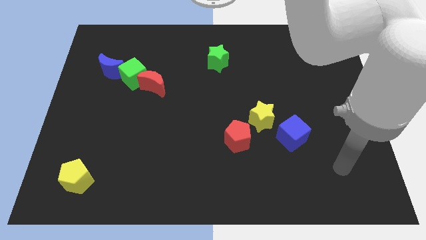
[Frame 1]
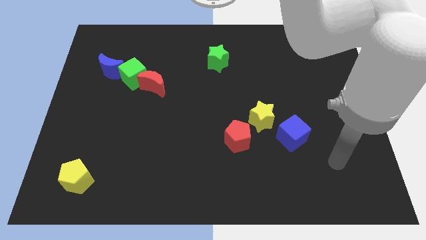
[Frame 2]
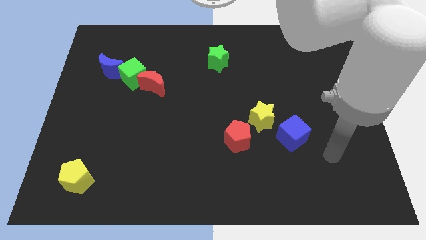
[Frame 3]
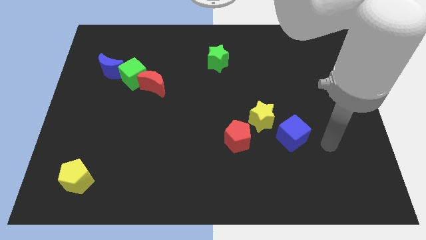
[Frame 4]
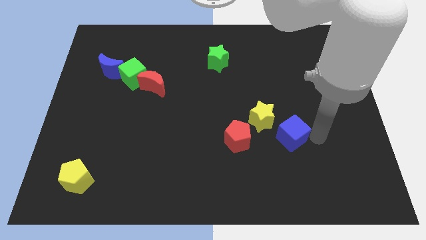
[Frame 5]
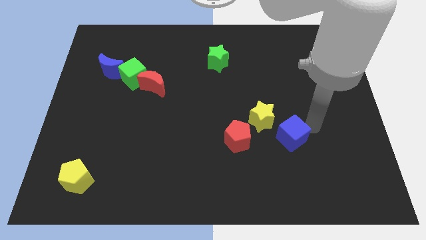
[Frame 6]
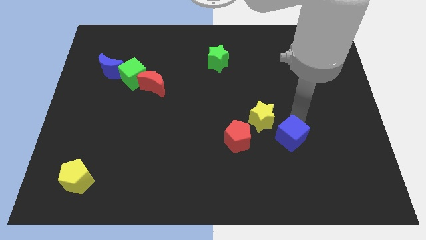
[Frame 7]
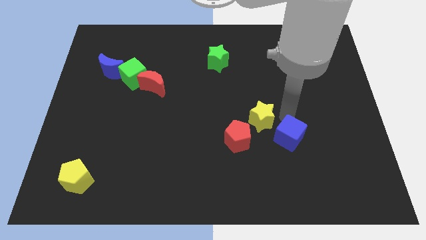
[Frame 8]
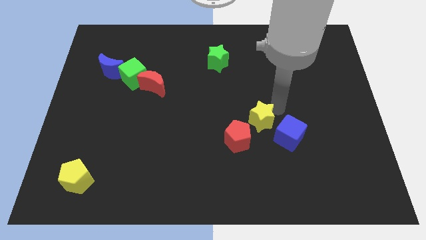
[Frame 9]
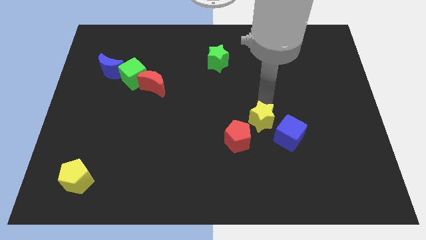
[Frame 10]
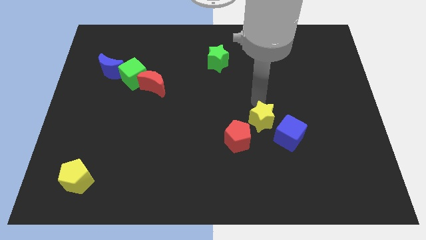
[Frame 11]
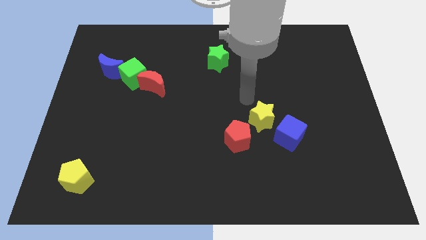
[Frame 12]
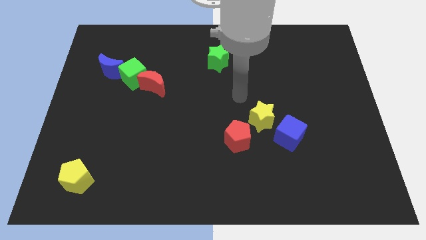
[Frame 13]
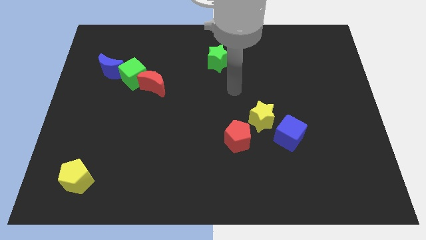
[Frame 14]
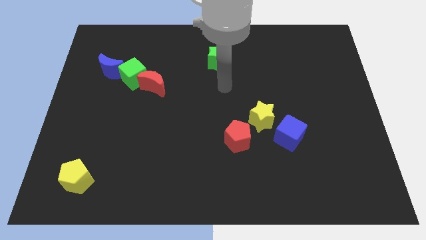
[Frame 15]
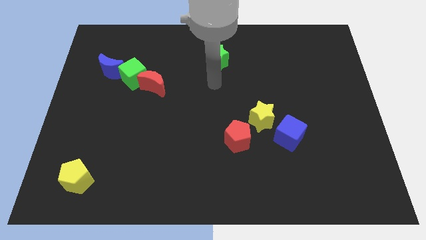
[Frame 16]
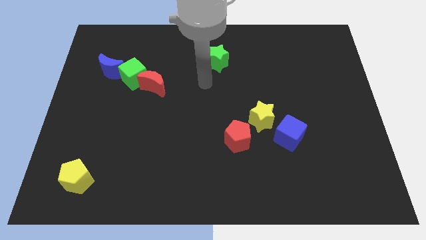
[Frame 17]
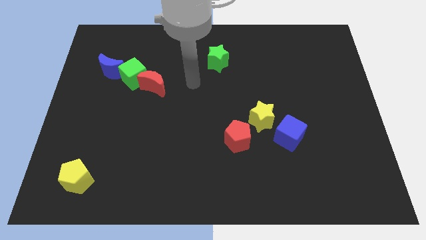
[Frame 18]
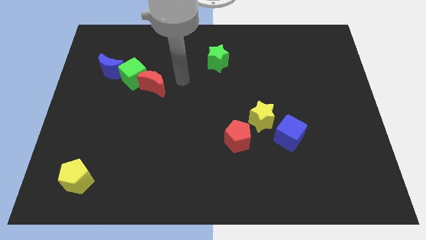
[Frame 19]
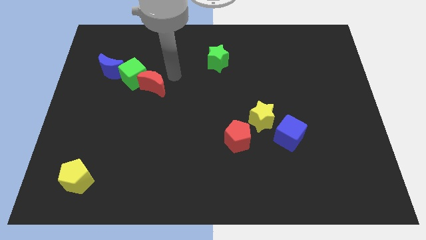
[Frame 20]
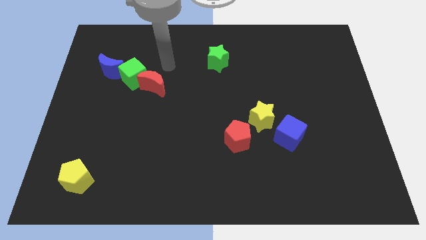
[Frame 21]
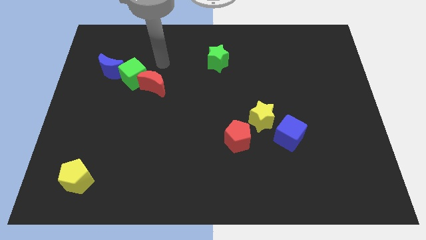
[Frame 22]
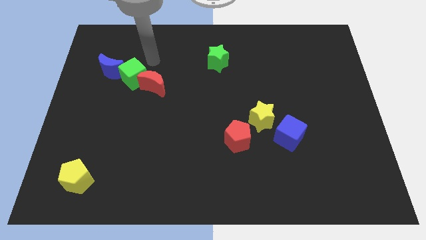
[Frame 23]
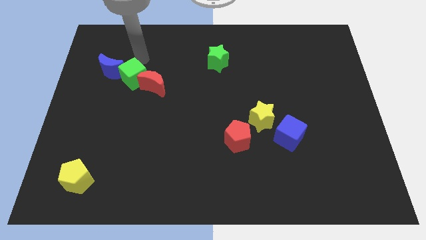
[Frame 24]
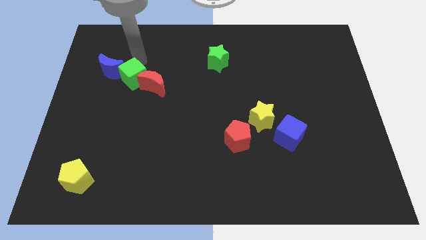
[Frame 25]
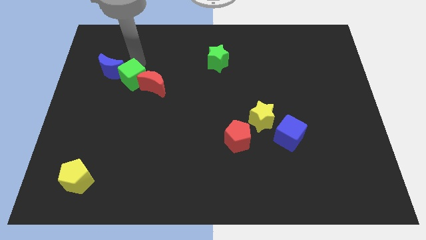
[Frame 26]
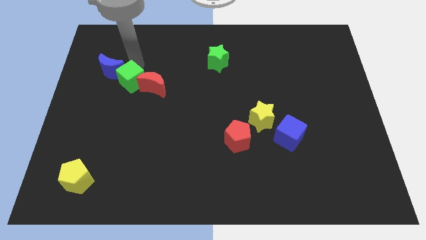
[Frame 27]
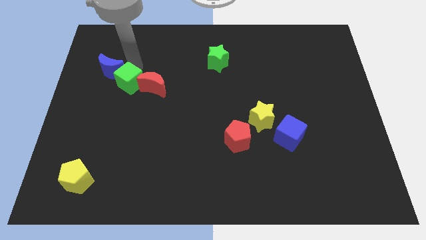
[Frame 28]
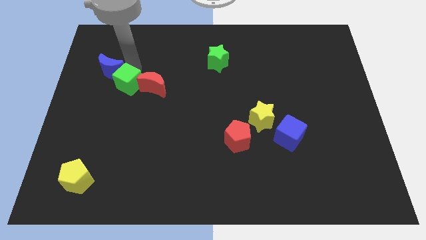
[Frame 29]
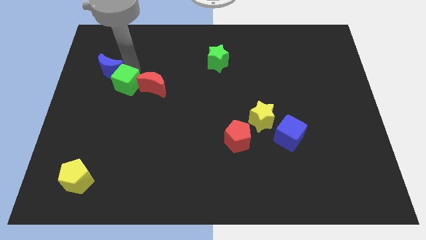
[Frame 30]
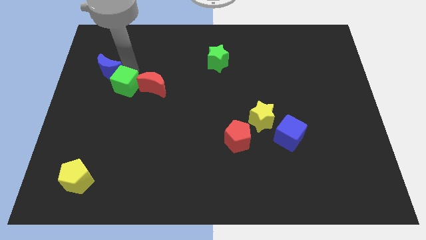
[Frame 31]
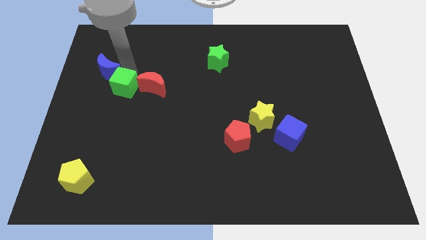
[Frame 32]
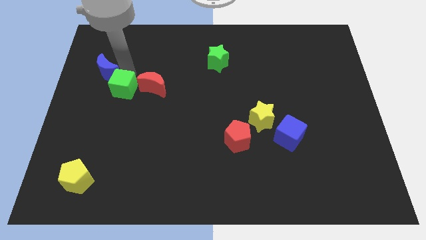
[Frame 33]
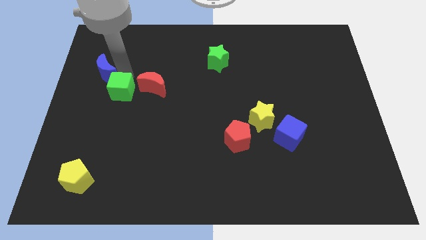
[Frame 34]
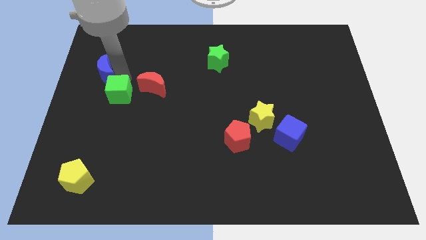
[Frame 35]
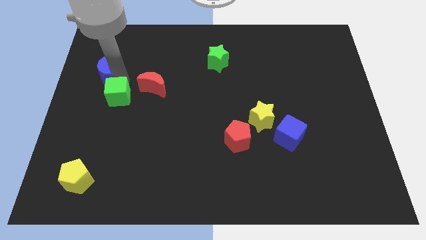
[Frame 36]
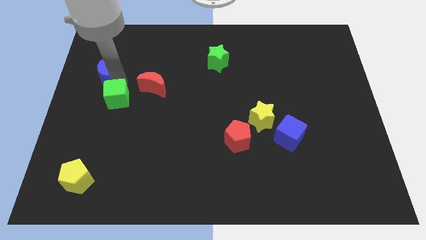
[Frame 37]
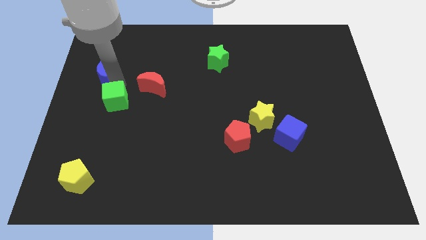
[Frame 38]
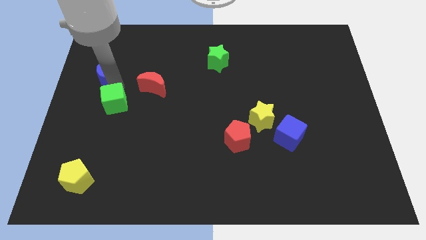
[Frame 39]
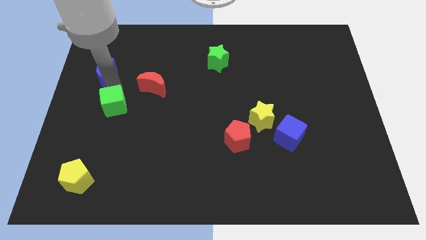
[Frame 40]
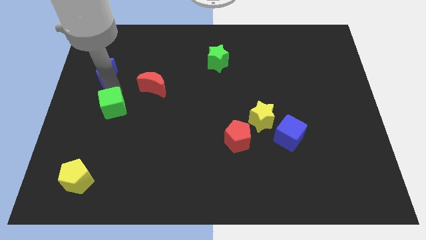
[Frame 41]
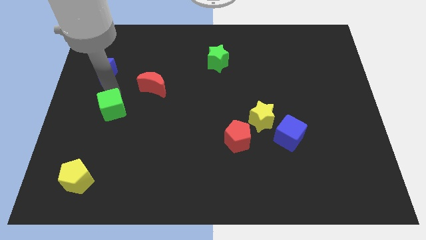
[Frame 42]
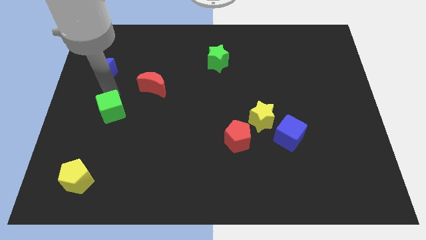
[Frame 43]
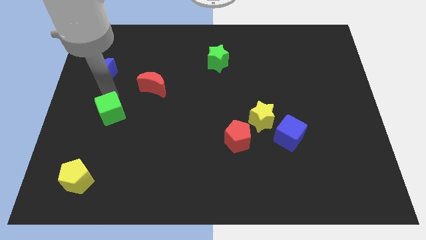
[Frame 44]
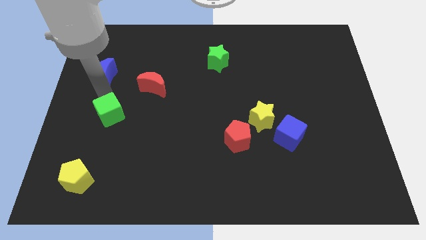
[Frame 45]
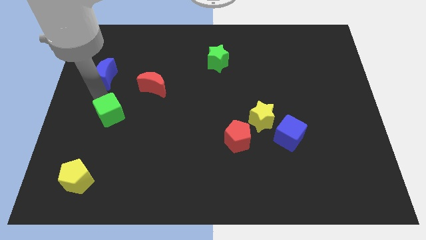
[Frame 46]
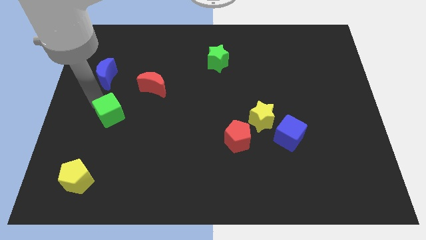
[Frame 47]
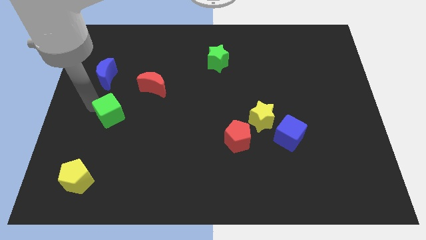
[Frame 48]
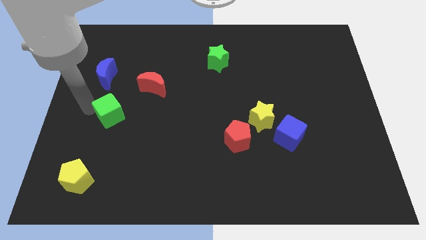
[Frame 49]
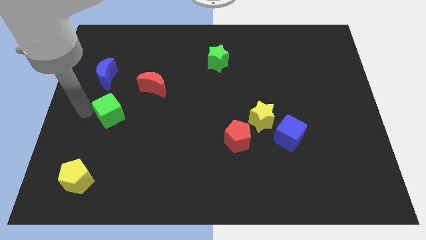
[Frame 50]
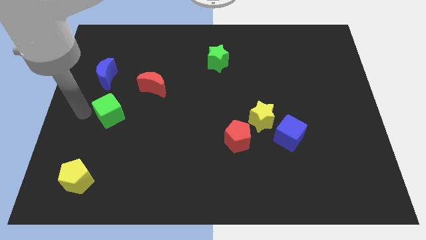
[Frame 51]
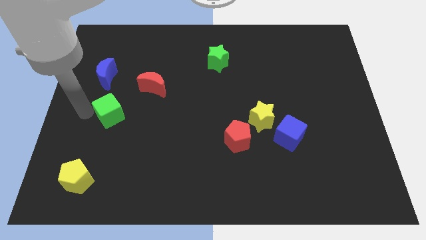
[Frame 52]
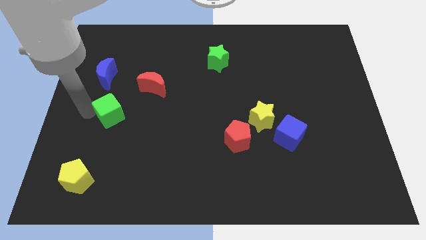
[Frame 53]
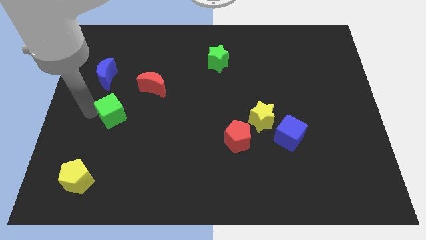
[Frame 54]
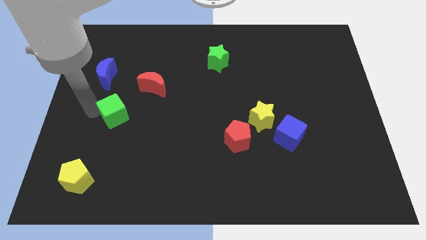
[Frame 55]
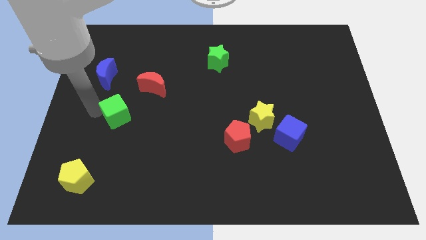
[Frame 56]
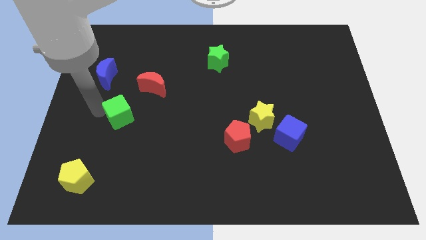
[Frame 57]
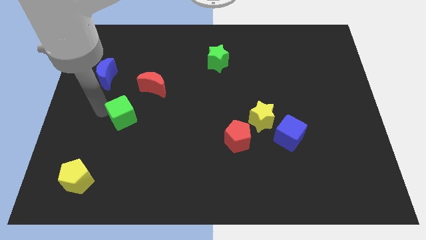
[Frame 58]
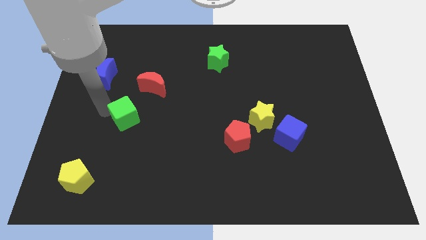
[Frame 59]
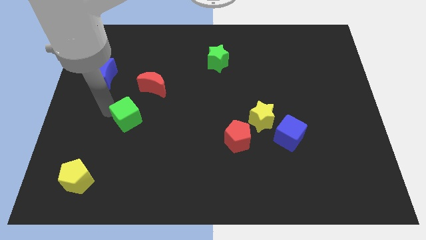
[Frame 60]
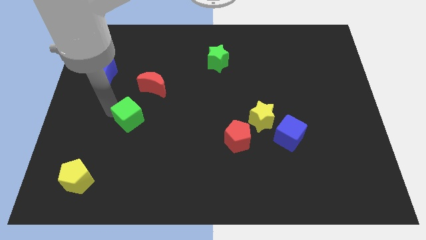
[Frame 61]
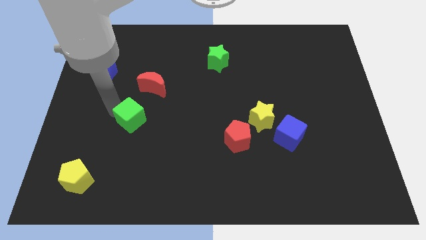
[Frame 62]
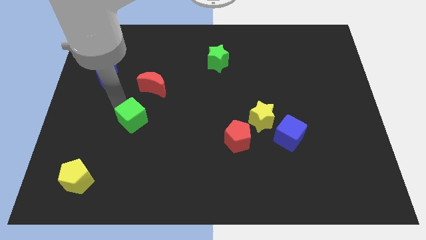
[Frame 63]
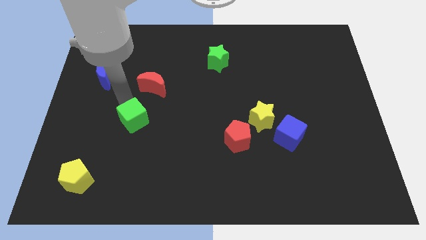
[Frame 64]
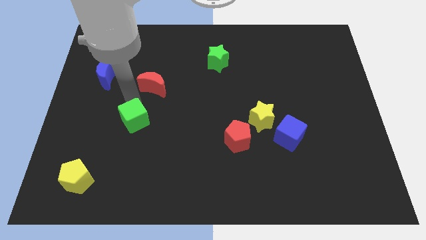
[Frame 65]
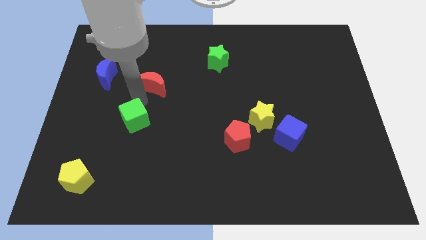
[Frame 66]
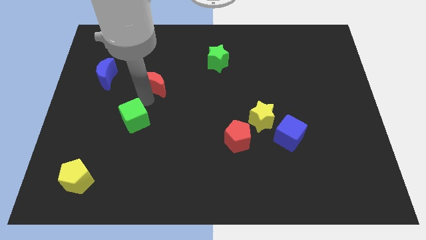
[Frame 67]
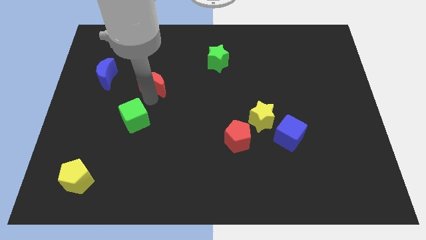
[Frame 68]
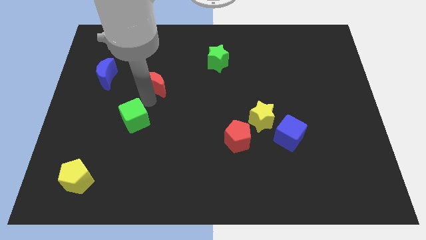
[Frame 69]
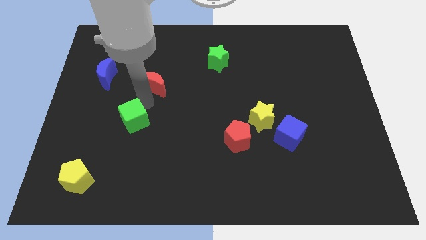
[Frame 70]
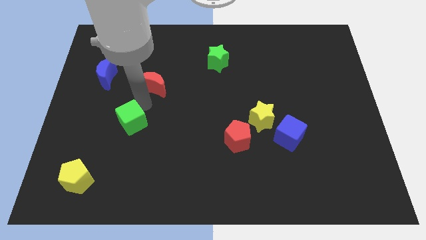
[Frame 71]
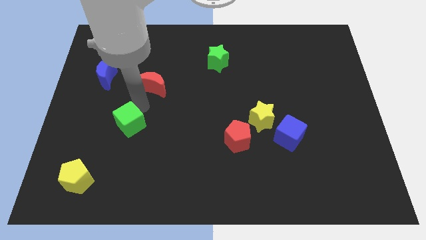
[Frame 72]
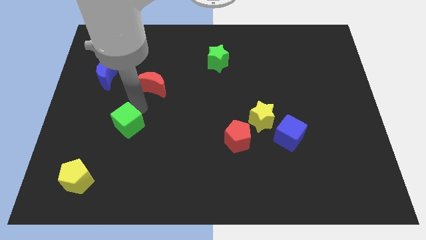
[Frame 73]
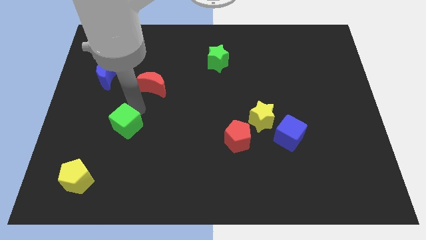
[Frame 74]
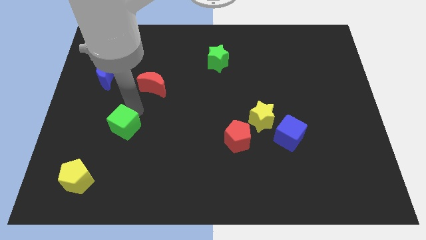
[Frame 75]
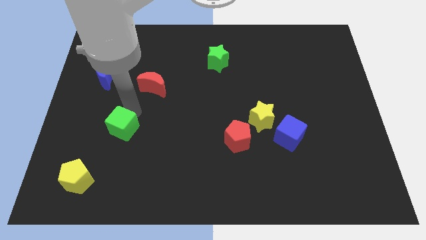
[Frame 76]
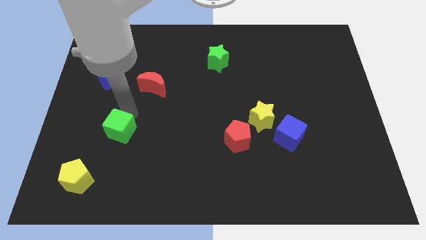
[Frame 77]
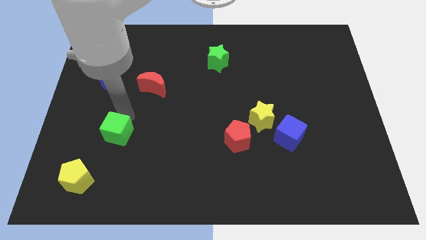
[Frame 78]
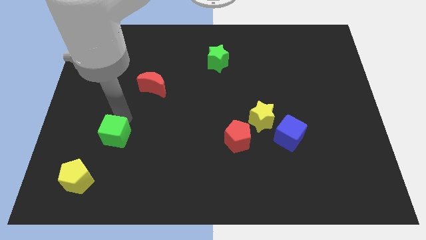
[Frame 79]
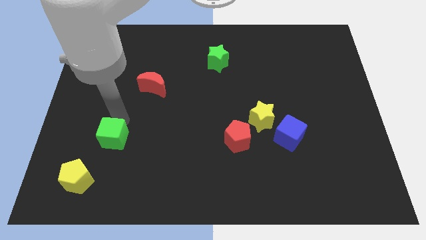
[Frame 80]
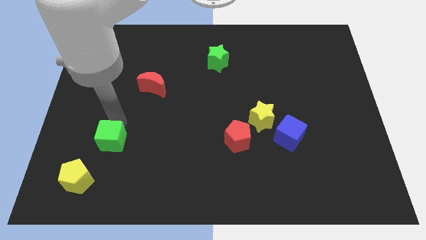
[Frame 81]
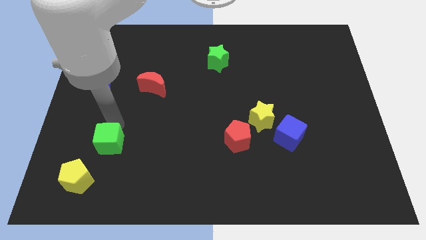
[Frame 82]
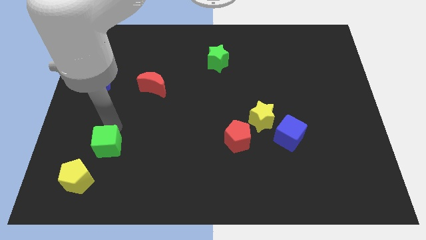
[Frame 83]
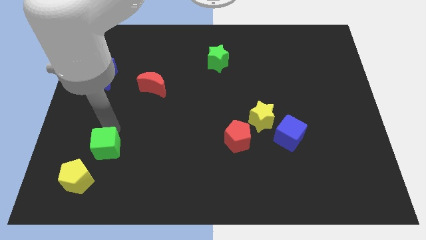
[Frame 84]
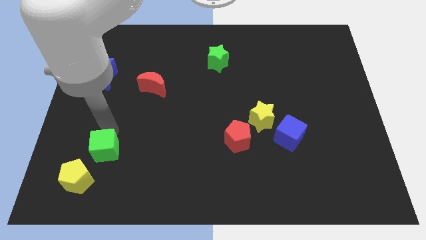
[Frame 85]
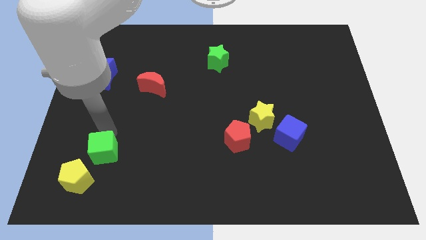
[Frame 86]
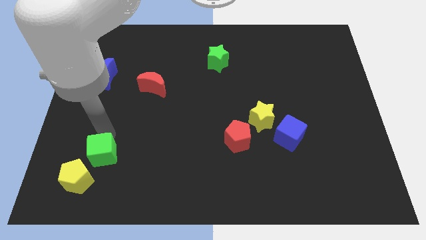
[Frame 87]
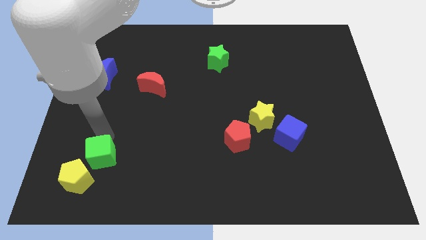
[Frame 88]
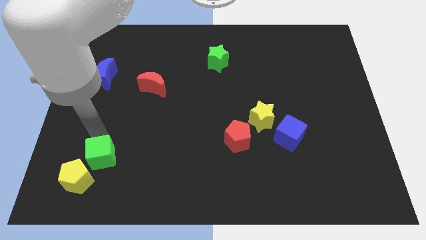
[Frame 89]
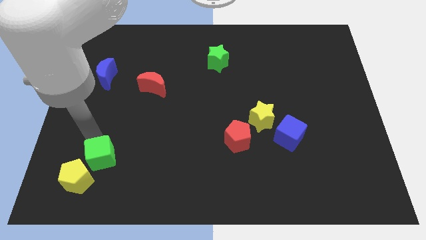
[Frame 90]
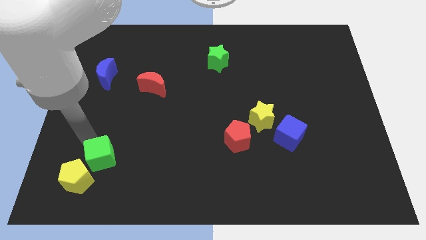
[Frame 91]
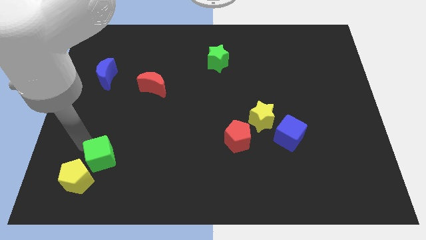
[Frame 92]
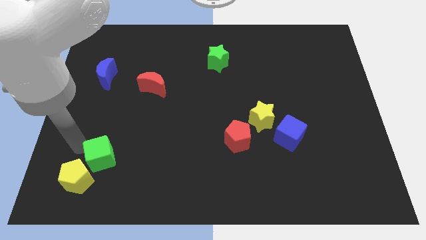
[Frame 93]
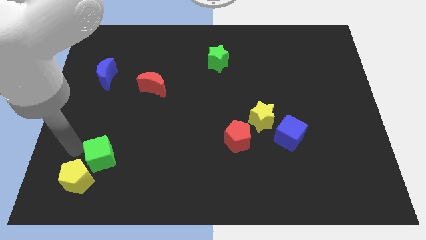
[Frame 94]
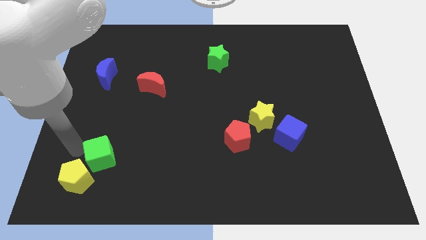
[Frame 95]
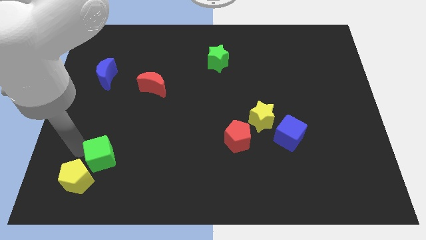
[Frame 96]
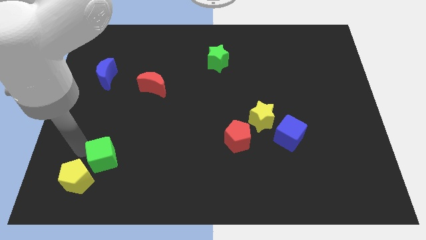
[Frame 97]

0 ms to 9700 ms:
put the green cube right of the yellow pentagon
